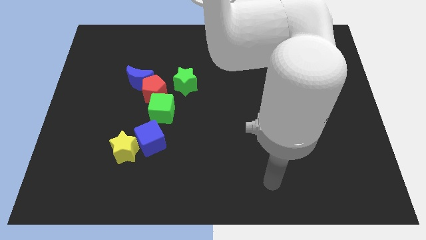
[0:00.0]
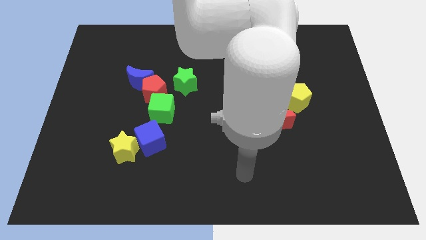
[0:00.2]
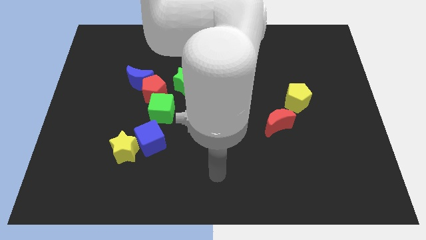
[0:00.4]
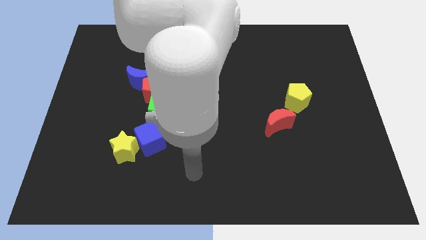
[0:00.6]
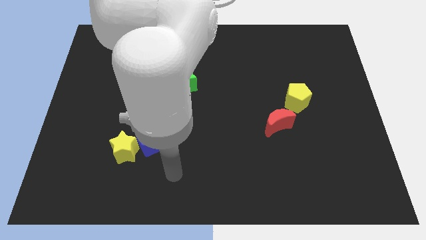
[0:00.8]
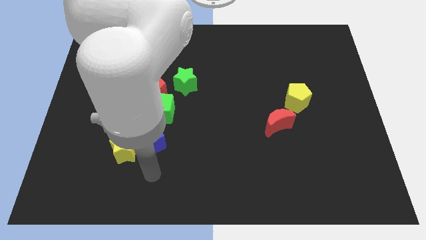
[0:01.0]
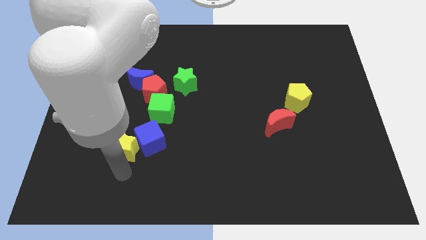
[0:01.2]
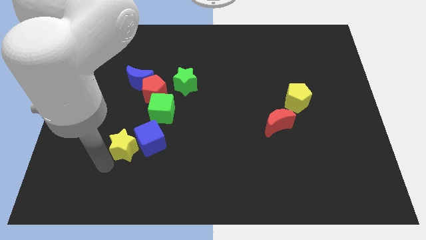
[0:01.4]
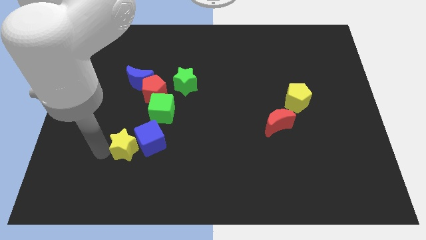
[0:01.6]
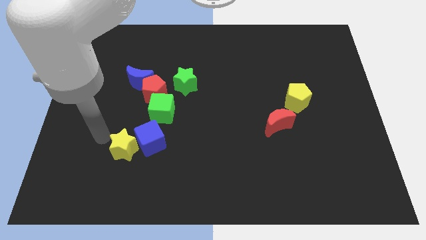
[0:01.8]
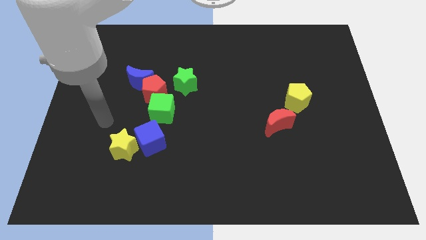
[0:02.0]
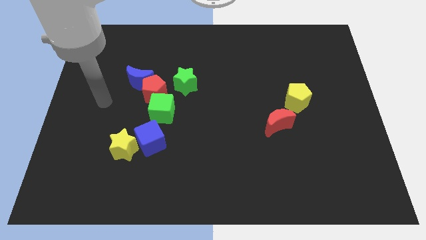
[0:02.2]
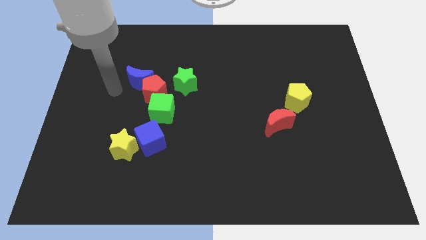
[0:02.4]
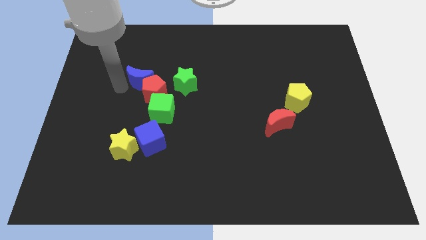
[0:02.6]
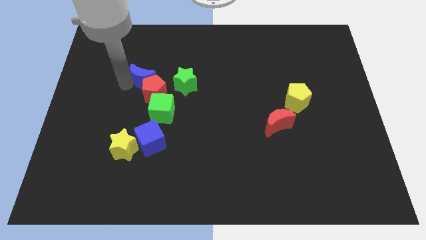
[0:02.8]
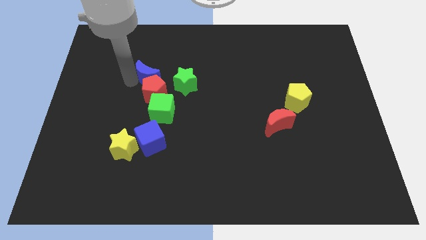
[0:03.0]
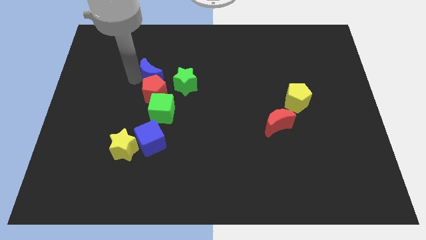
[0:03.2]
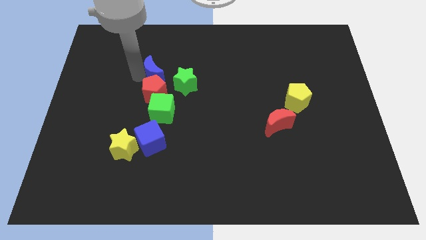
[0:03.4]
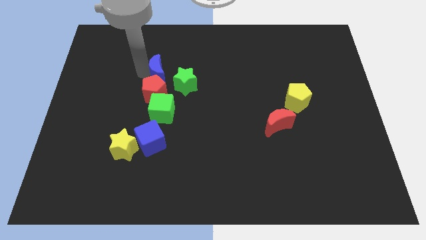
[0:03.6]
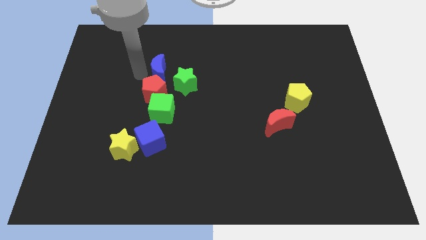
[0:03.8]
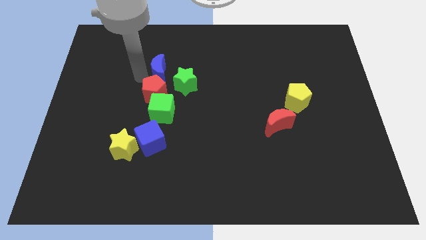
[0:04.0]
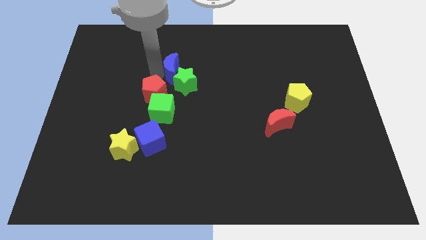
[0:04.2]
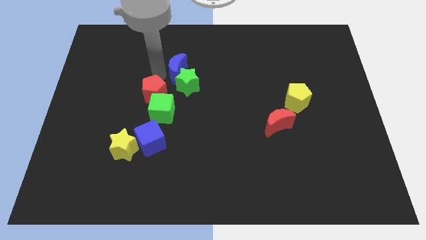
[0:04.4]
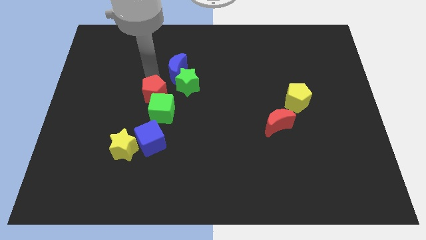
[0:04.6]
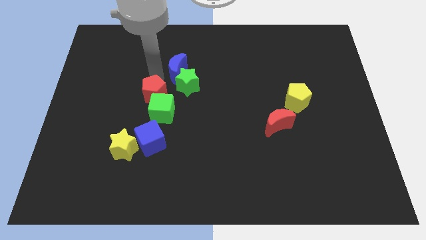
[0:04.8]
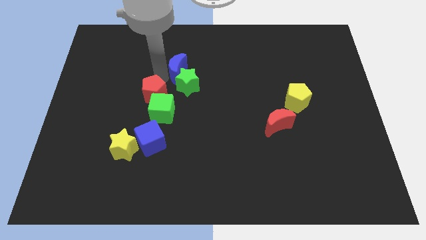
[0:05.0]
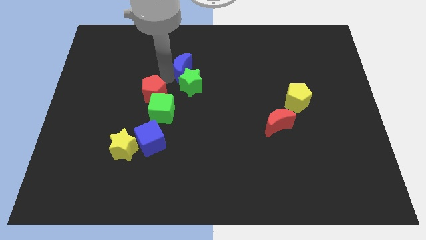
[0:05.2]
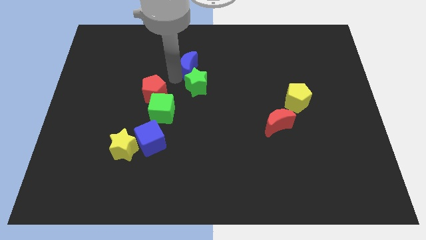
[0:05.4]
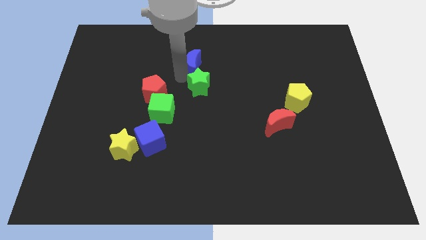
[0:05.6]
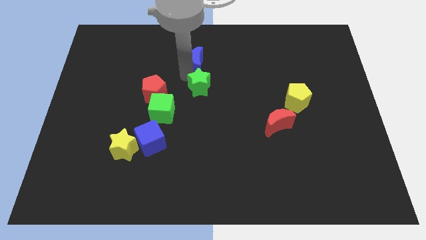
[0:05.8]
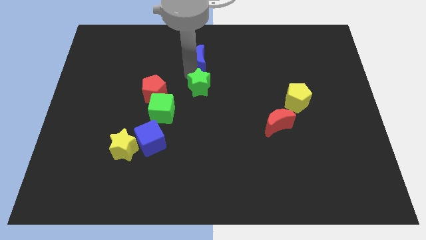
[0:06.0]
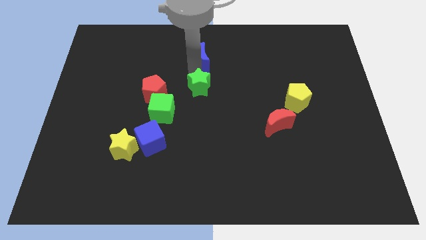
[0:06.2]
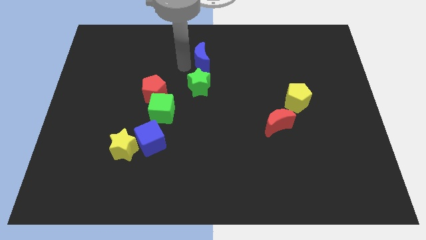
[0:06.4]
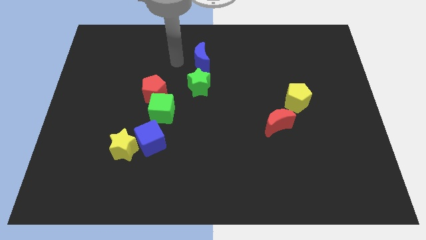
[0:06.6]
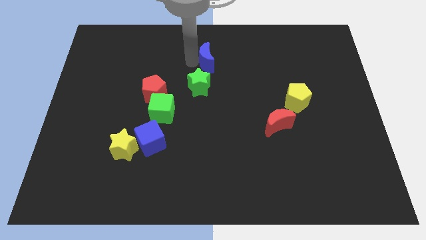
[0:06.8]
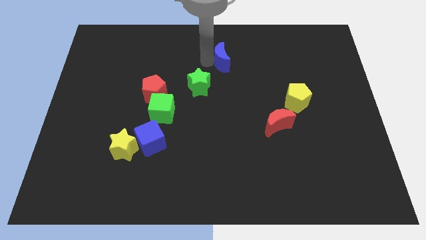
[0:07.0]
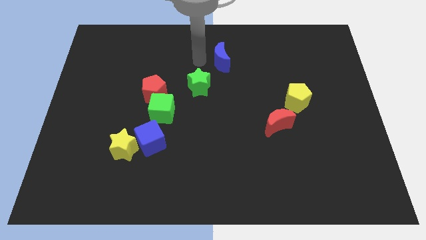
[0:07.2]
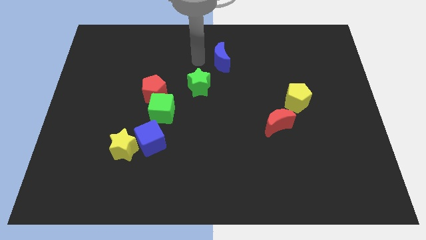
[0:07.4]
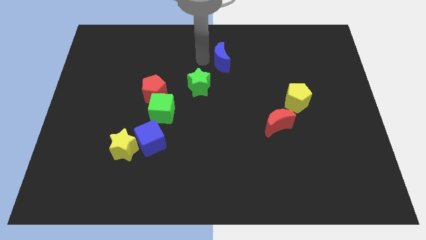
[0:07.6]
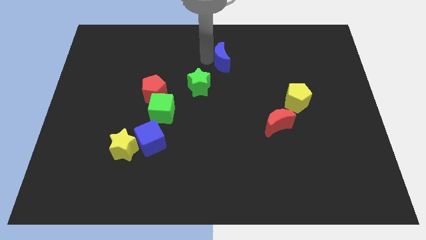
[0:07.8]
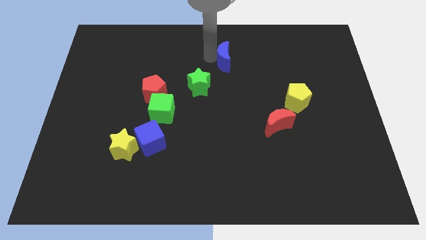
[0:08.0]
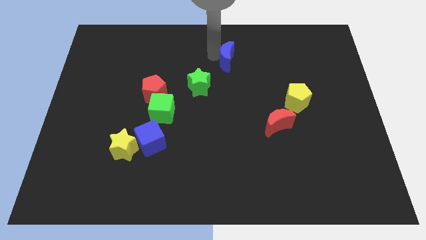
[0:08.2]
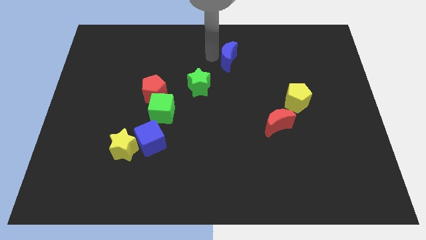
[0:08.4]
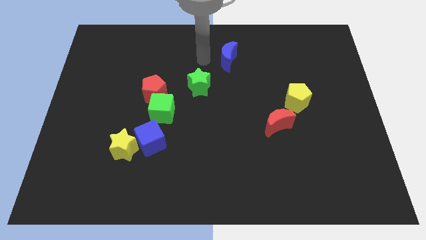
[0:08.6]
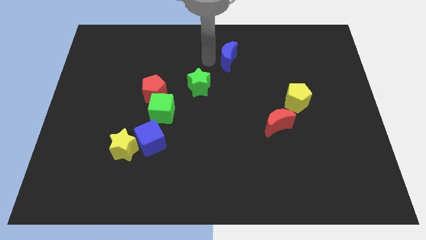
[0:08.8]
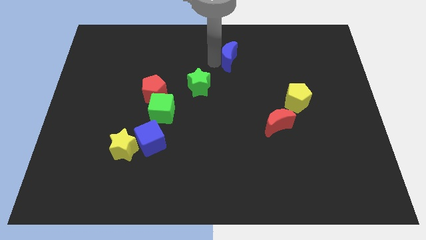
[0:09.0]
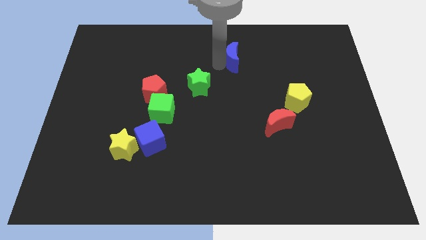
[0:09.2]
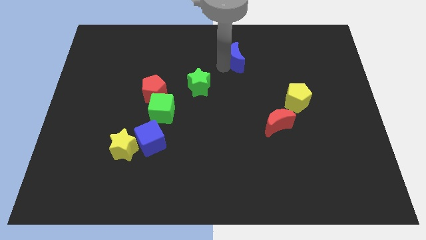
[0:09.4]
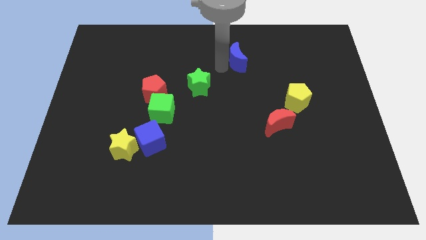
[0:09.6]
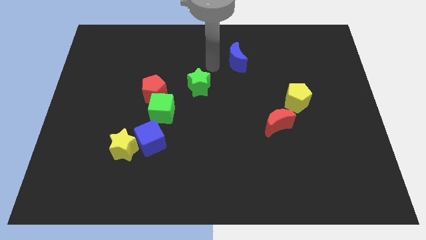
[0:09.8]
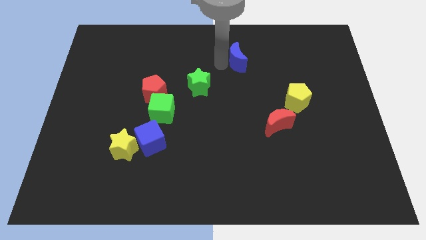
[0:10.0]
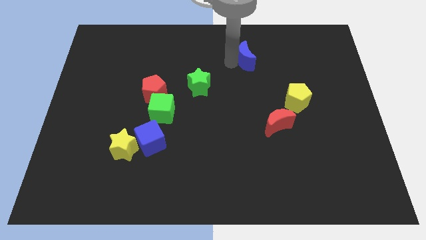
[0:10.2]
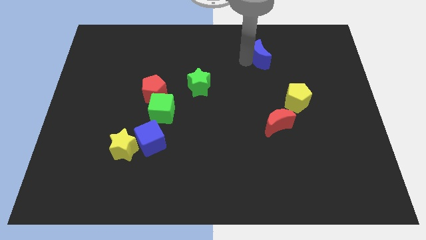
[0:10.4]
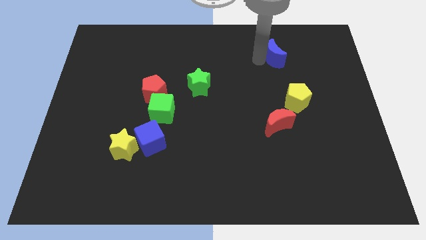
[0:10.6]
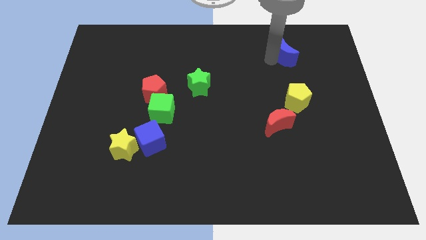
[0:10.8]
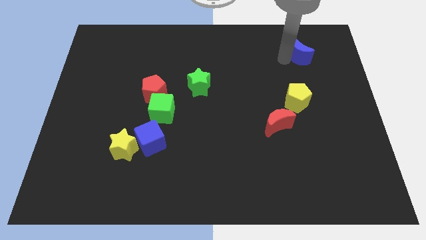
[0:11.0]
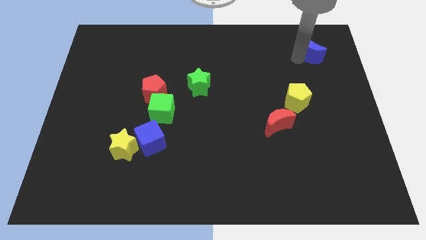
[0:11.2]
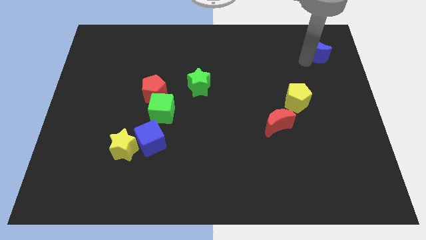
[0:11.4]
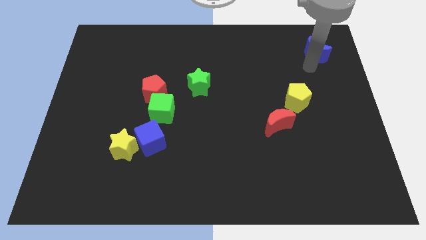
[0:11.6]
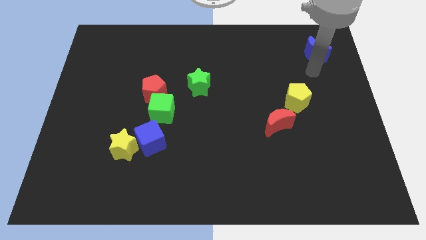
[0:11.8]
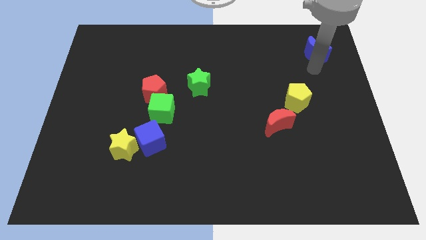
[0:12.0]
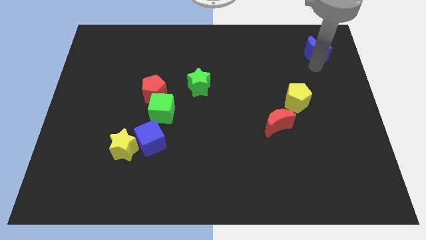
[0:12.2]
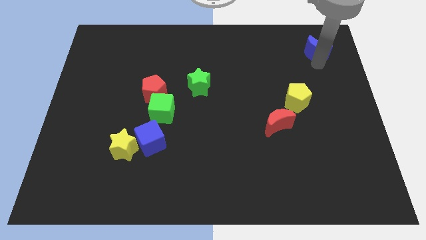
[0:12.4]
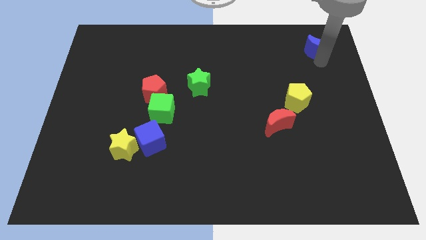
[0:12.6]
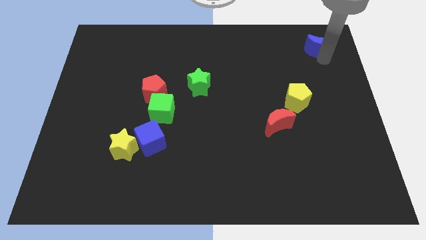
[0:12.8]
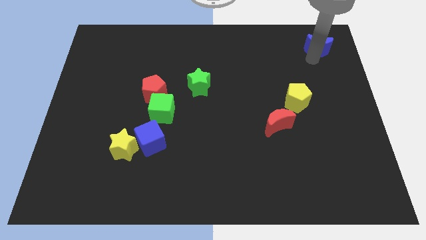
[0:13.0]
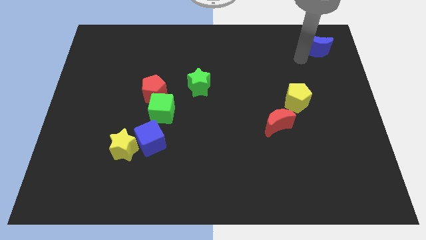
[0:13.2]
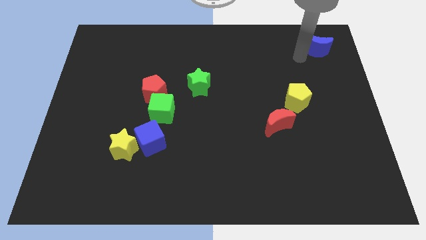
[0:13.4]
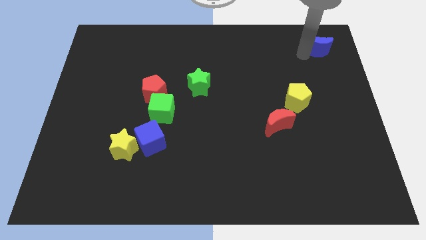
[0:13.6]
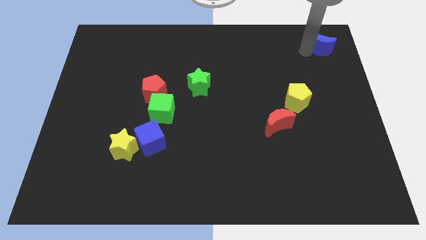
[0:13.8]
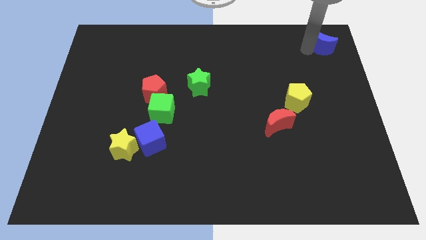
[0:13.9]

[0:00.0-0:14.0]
put the blue moon to the top right of the board

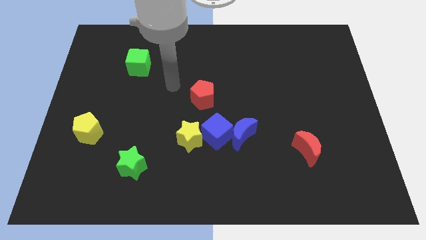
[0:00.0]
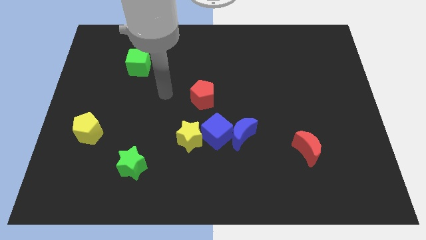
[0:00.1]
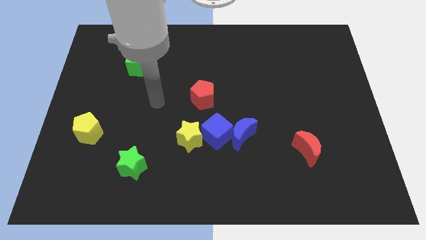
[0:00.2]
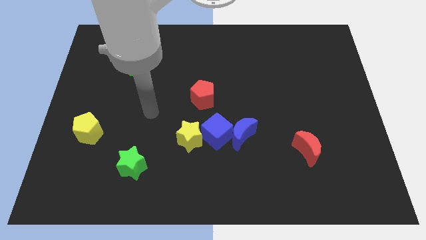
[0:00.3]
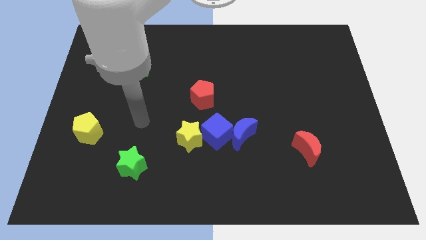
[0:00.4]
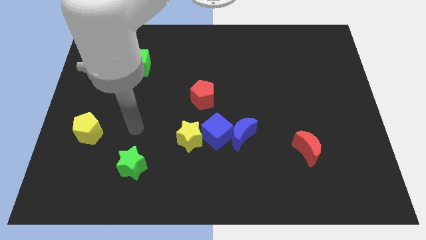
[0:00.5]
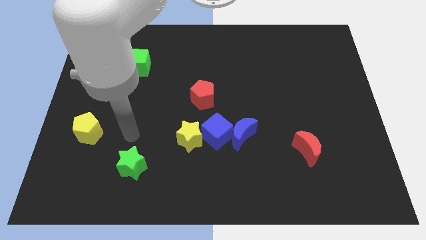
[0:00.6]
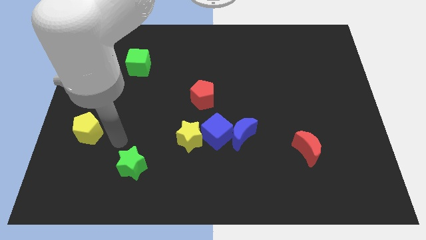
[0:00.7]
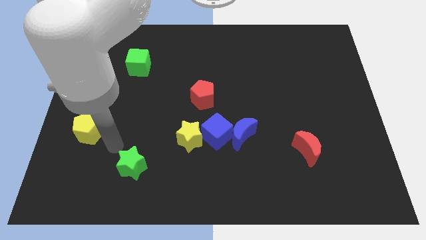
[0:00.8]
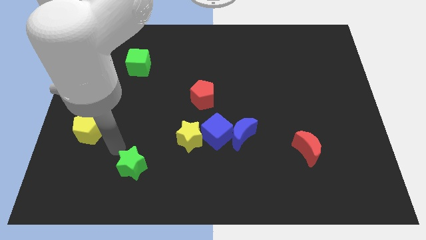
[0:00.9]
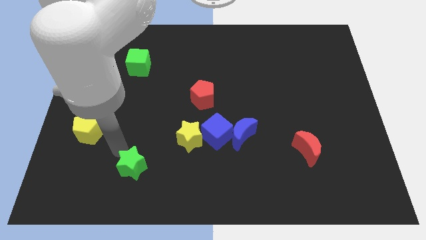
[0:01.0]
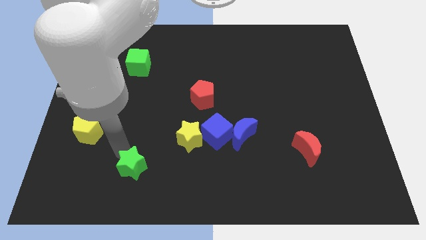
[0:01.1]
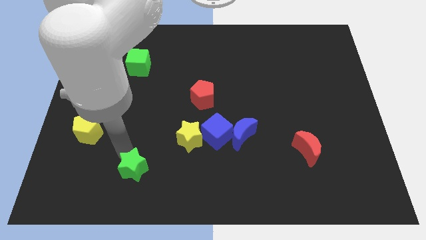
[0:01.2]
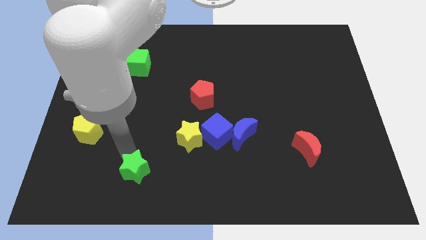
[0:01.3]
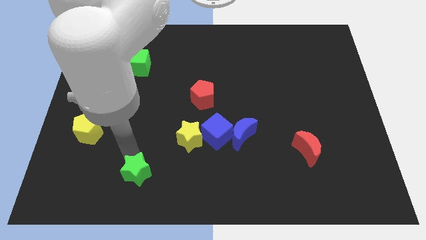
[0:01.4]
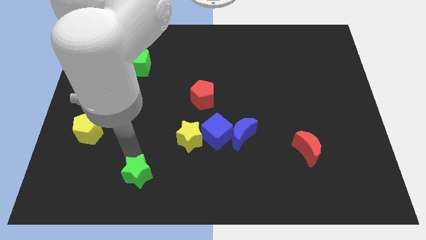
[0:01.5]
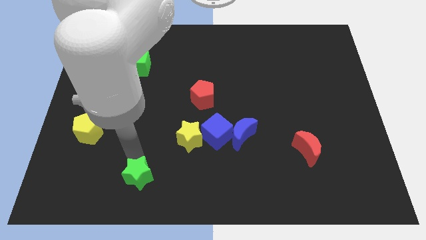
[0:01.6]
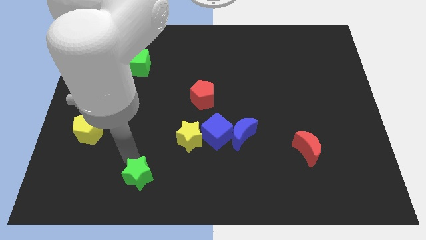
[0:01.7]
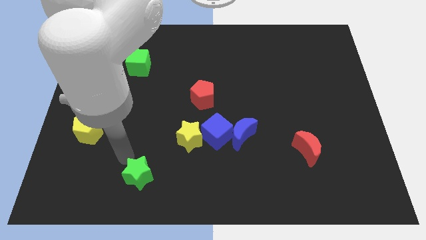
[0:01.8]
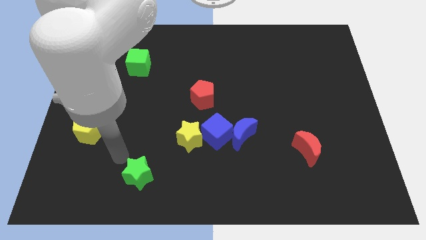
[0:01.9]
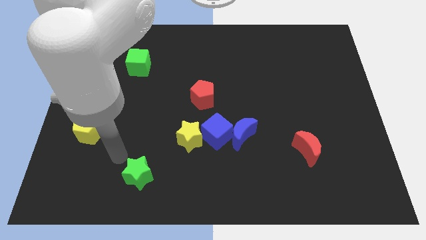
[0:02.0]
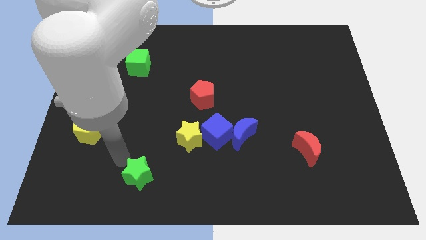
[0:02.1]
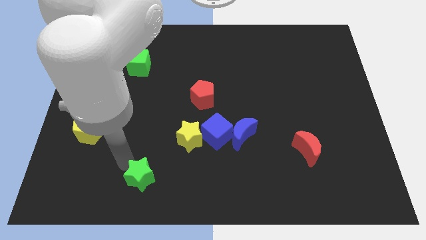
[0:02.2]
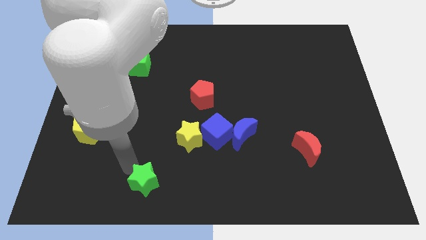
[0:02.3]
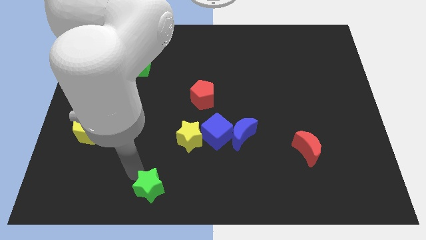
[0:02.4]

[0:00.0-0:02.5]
push the green star to the bottom
